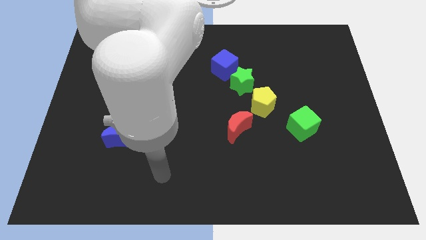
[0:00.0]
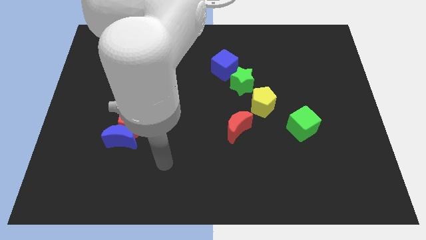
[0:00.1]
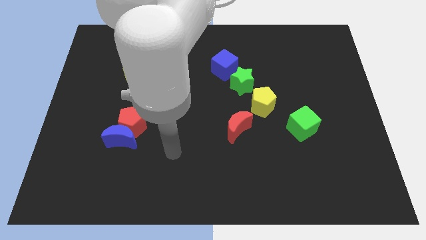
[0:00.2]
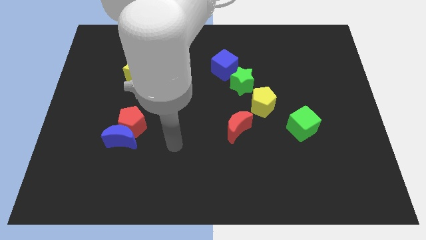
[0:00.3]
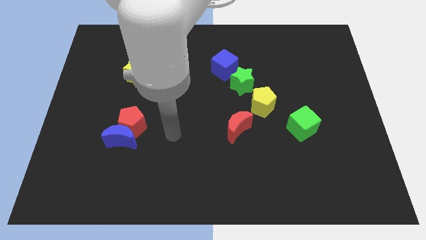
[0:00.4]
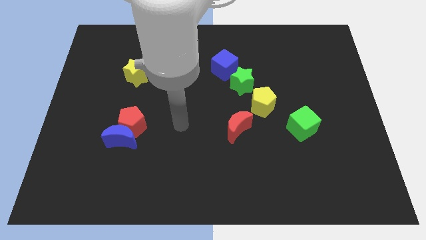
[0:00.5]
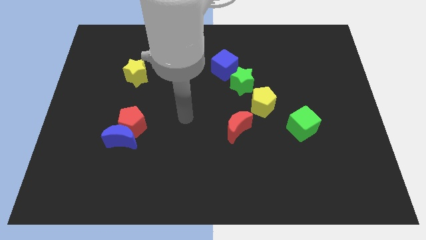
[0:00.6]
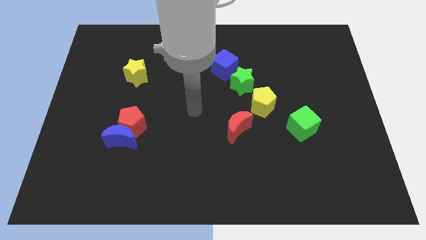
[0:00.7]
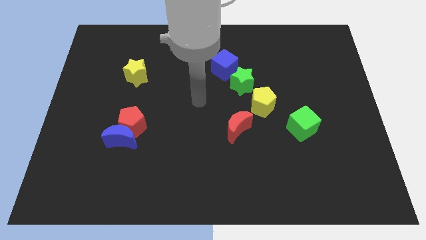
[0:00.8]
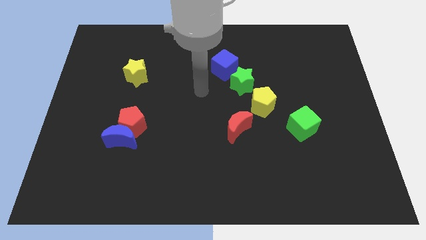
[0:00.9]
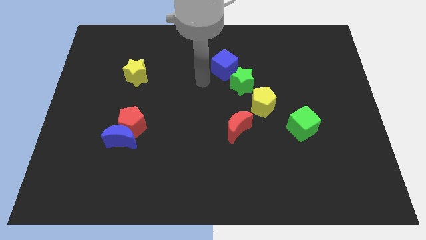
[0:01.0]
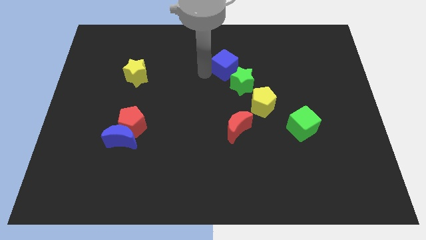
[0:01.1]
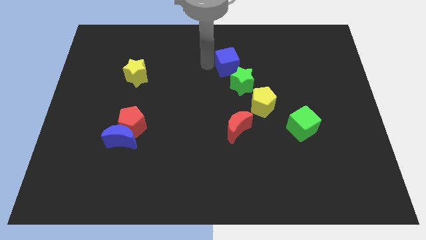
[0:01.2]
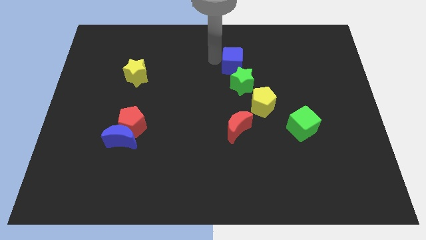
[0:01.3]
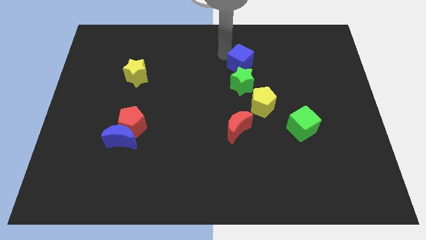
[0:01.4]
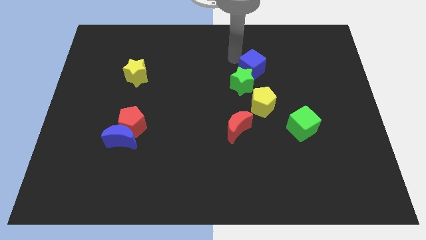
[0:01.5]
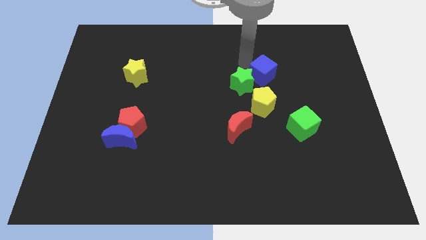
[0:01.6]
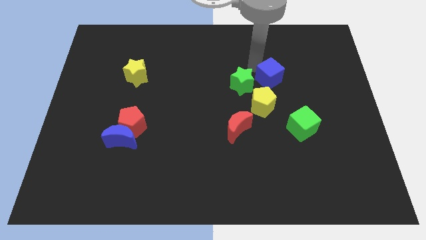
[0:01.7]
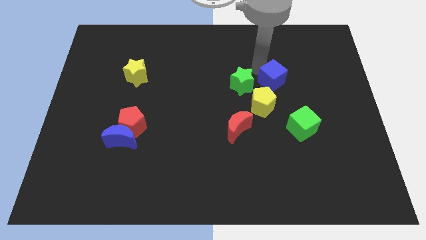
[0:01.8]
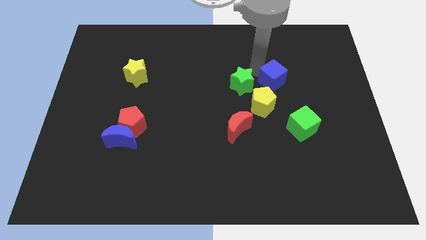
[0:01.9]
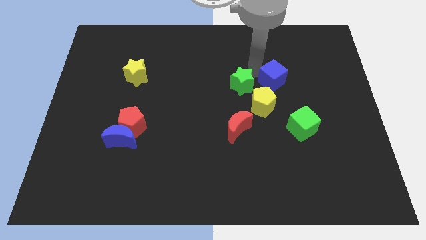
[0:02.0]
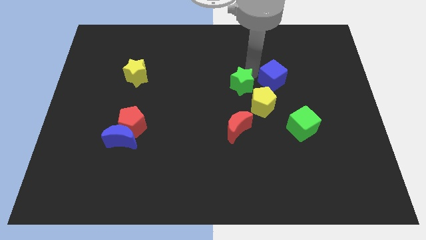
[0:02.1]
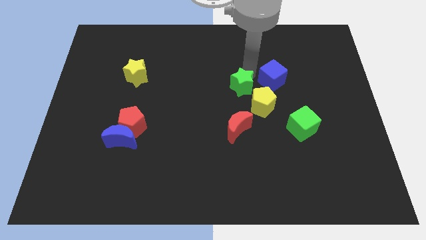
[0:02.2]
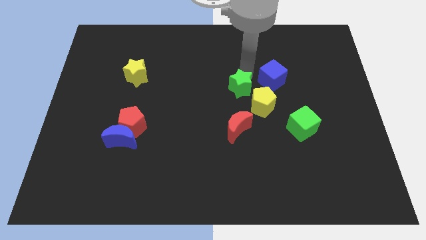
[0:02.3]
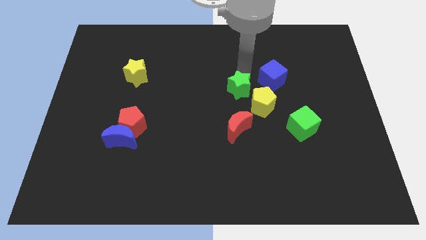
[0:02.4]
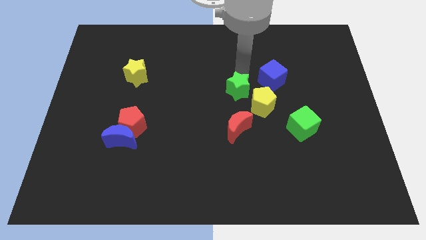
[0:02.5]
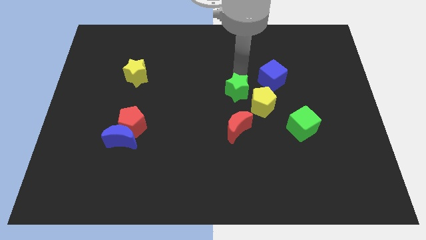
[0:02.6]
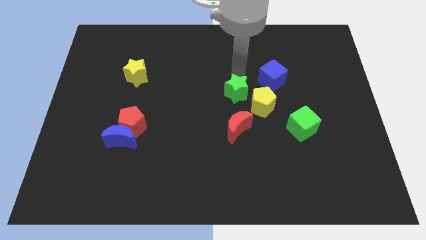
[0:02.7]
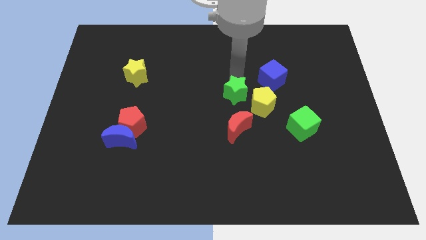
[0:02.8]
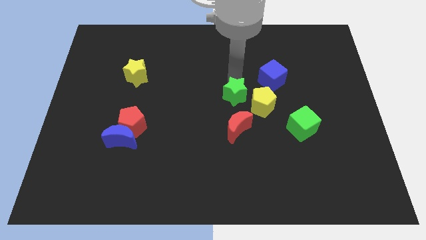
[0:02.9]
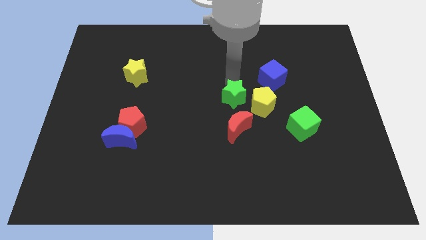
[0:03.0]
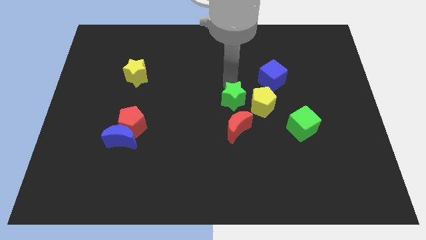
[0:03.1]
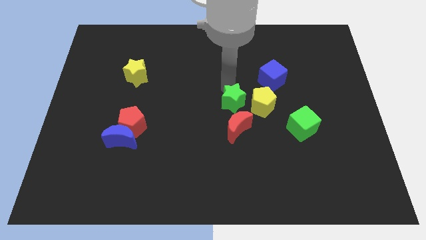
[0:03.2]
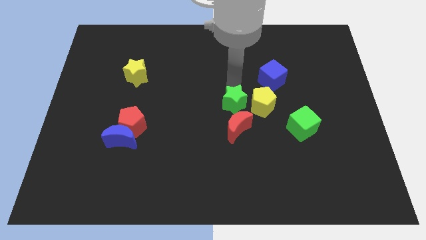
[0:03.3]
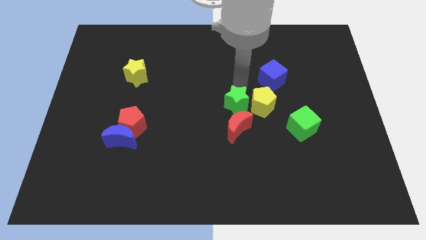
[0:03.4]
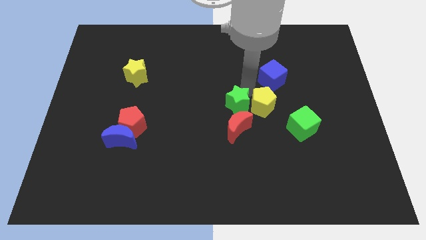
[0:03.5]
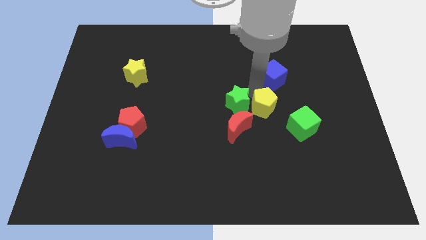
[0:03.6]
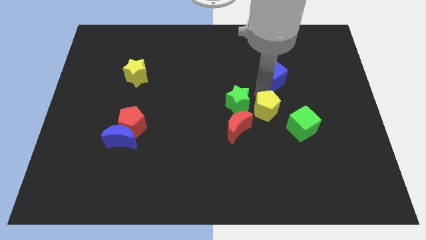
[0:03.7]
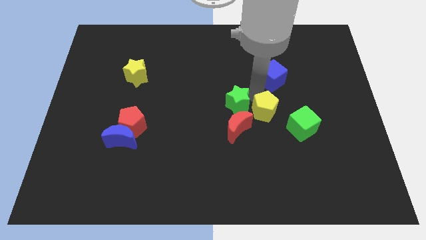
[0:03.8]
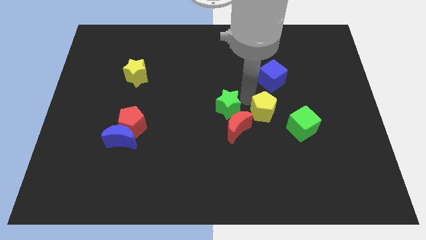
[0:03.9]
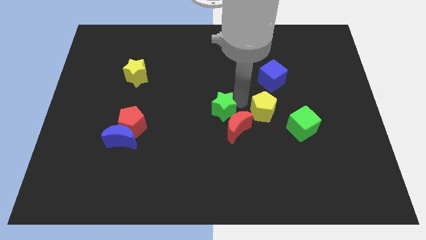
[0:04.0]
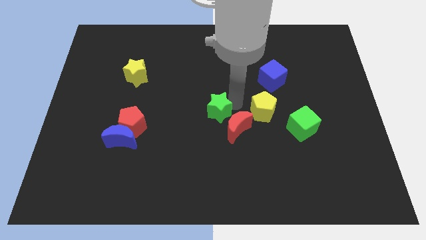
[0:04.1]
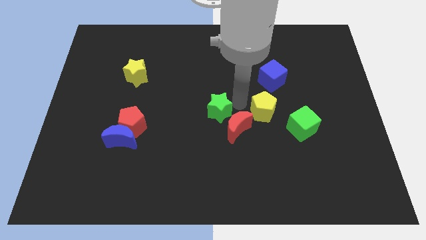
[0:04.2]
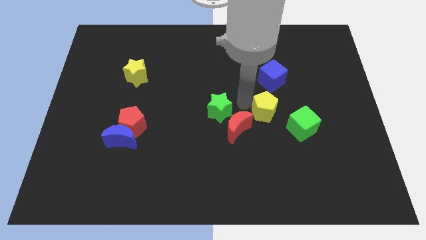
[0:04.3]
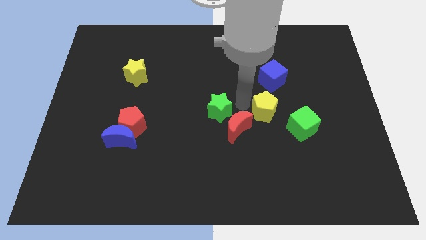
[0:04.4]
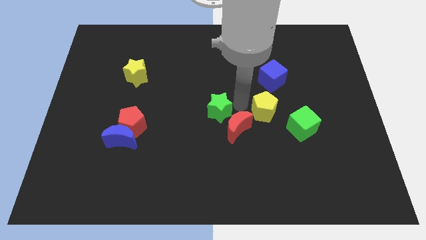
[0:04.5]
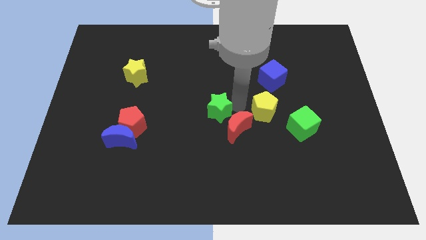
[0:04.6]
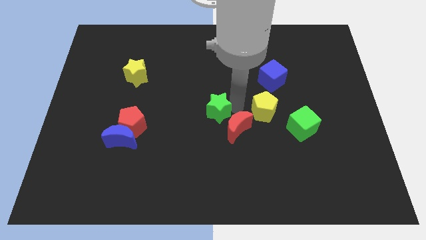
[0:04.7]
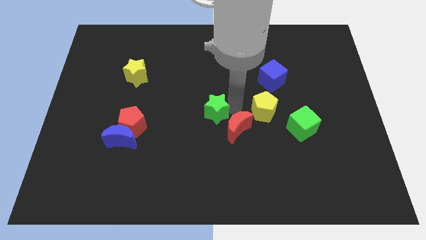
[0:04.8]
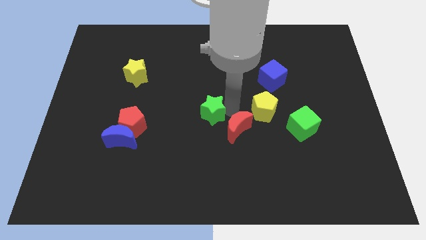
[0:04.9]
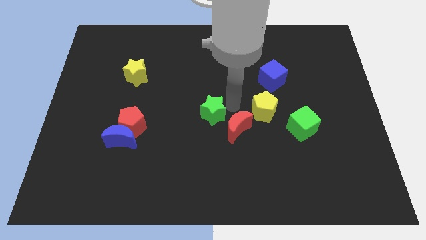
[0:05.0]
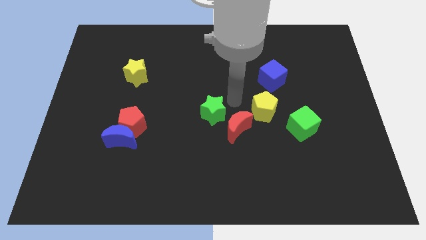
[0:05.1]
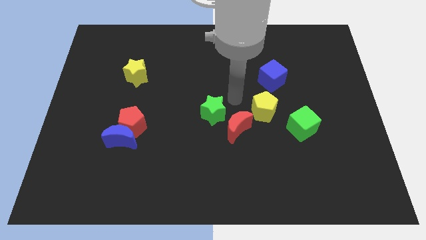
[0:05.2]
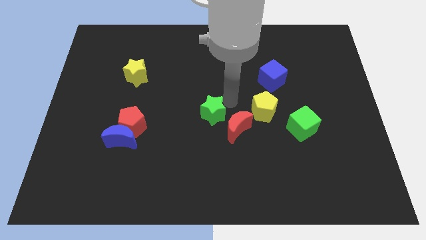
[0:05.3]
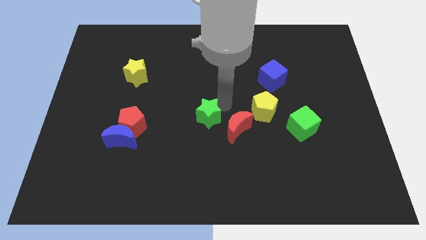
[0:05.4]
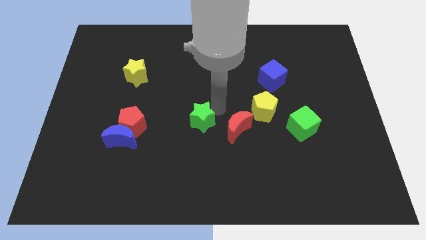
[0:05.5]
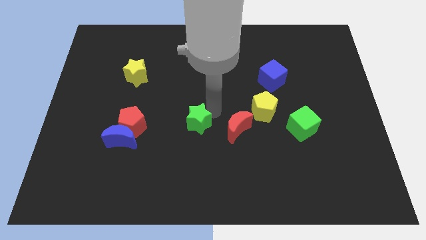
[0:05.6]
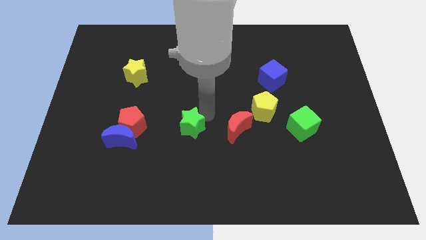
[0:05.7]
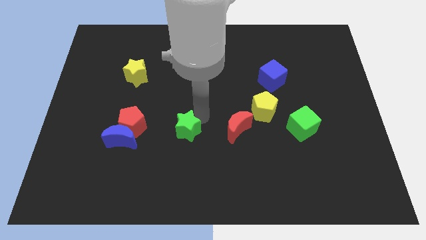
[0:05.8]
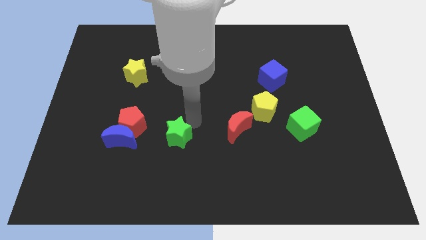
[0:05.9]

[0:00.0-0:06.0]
move the green star down and left diagonally

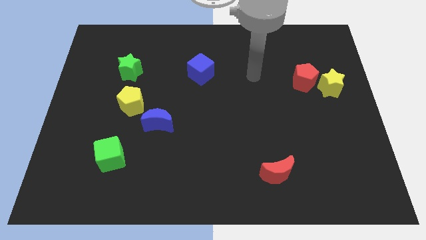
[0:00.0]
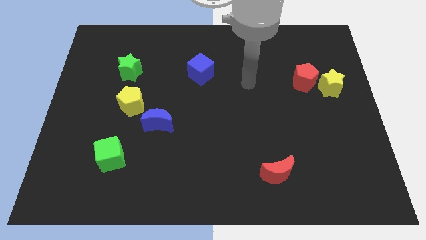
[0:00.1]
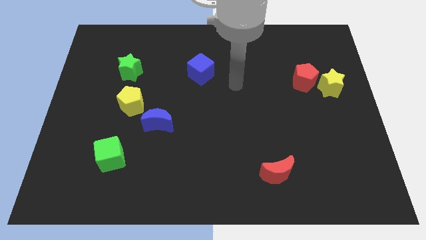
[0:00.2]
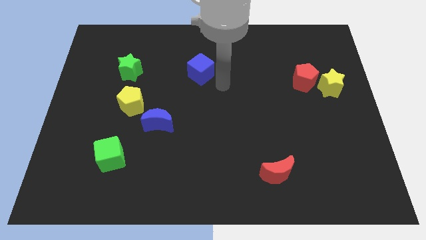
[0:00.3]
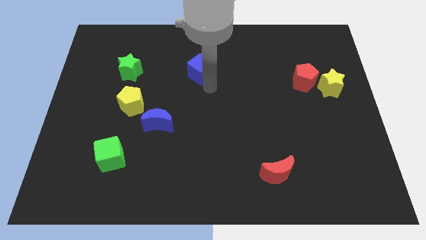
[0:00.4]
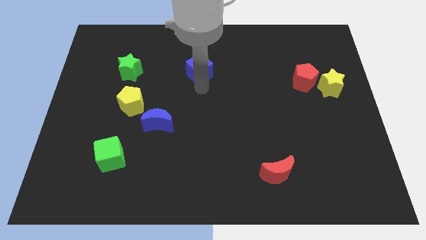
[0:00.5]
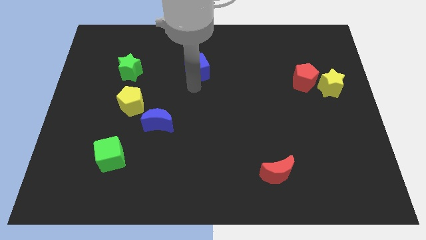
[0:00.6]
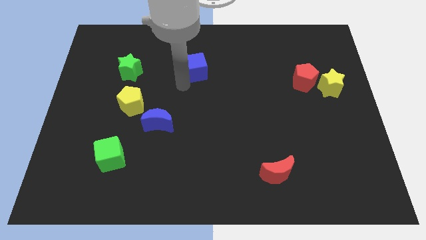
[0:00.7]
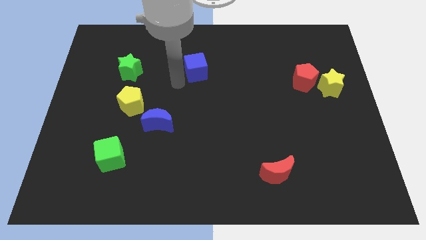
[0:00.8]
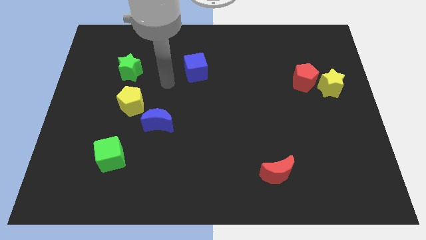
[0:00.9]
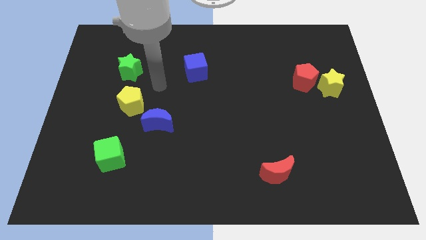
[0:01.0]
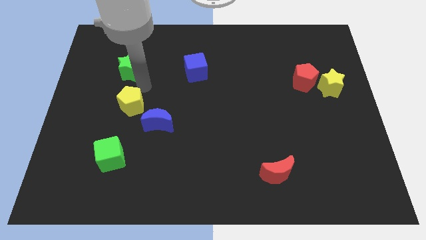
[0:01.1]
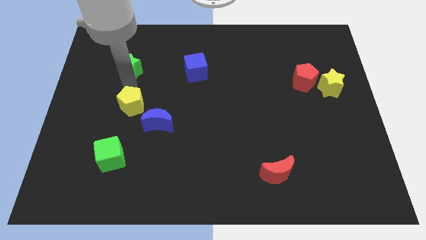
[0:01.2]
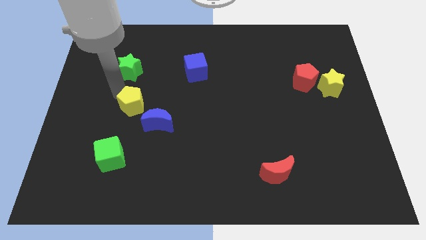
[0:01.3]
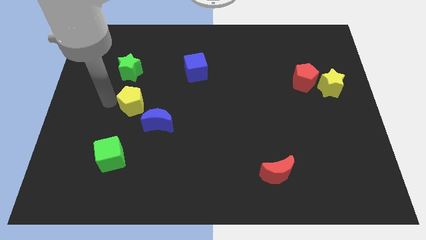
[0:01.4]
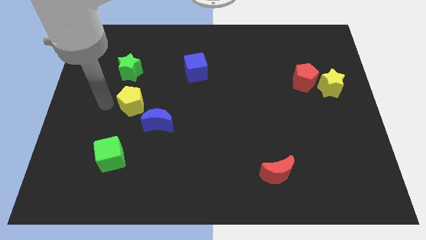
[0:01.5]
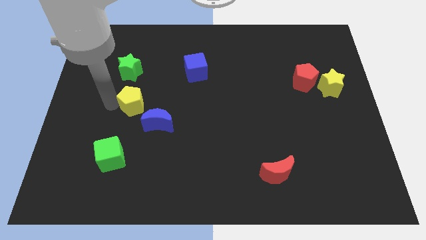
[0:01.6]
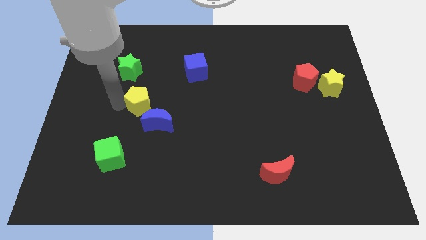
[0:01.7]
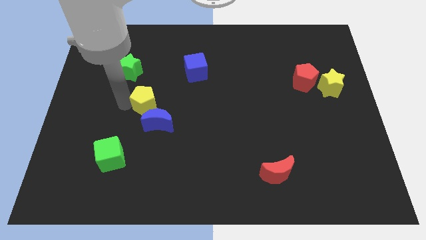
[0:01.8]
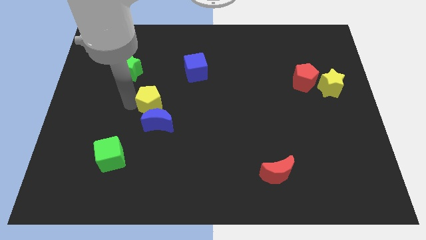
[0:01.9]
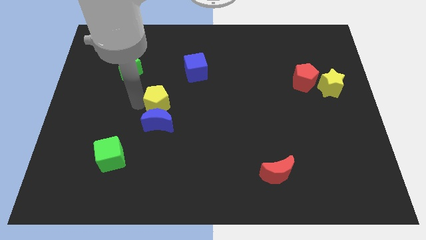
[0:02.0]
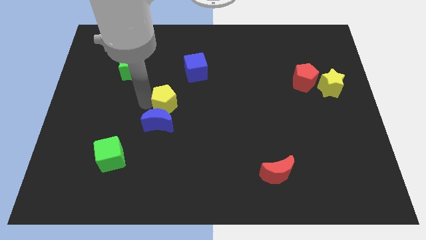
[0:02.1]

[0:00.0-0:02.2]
push the yellow pentagon right a bit
